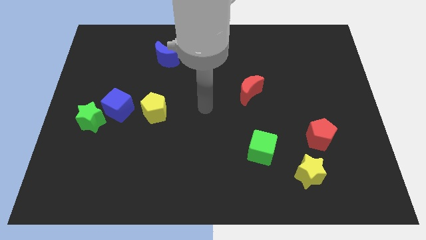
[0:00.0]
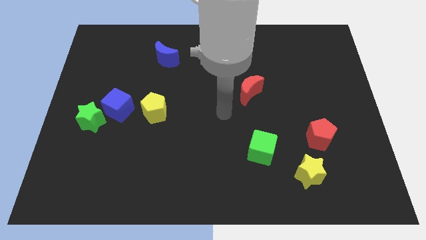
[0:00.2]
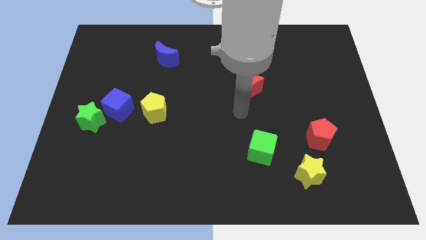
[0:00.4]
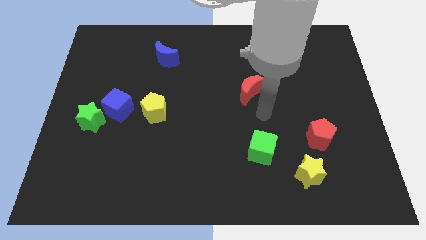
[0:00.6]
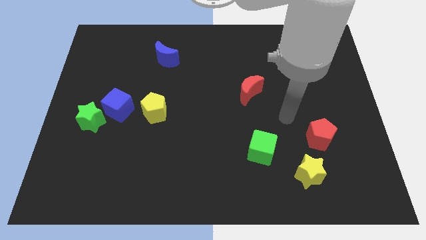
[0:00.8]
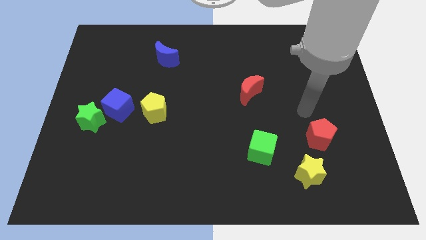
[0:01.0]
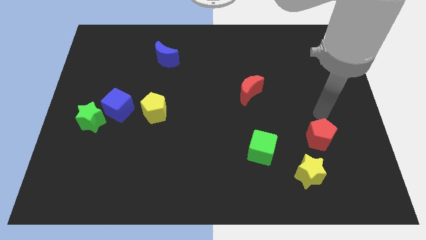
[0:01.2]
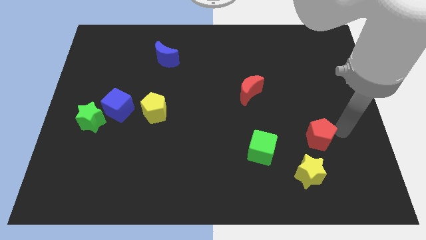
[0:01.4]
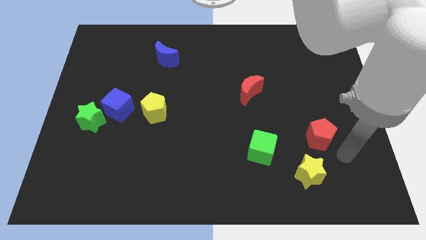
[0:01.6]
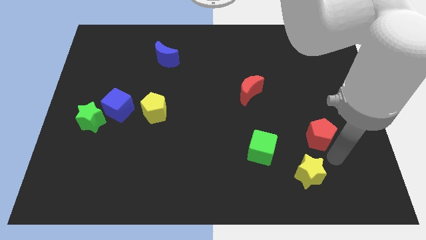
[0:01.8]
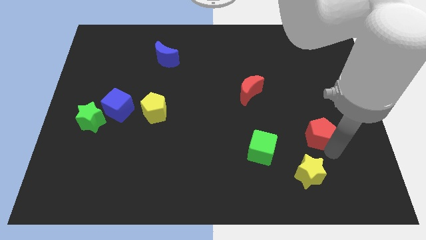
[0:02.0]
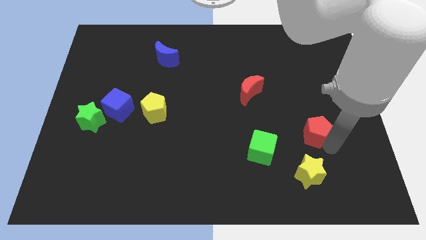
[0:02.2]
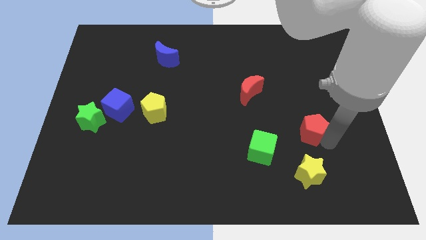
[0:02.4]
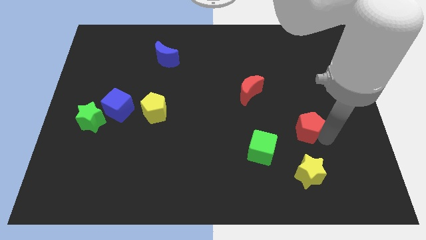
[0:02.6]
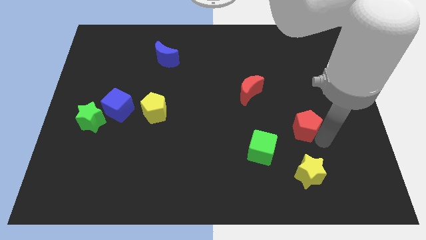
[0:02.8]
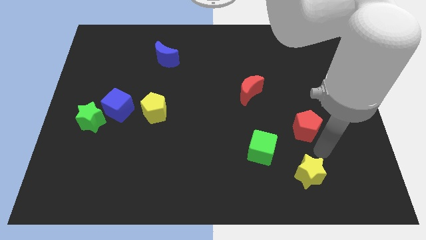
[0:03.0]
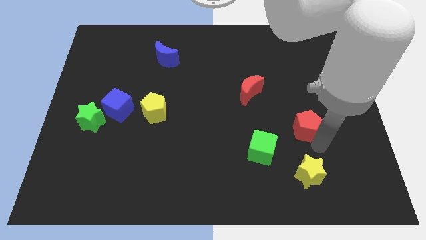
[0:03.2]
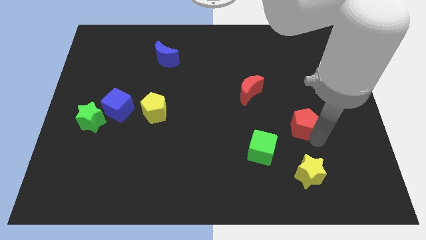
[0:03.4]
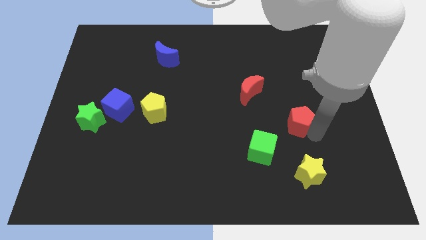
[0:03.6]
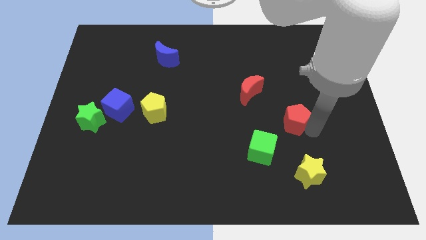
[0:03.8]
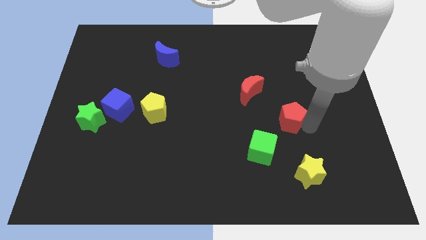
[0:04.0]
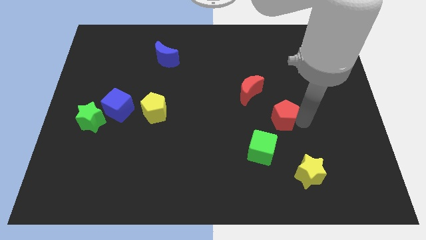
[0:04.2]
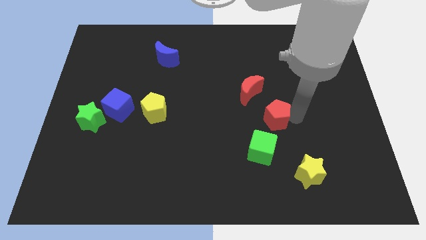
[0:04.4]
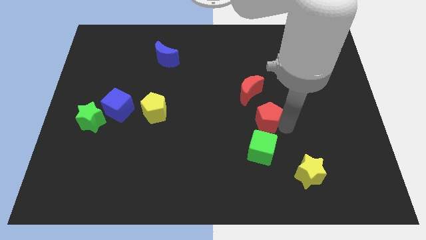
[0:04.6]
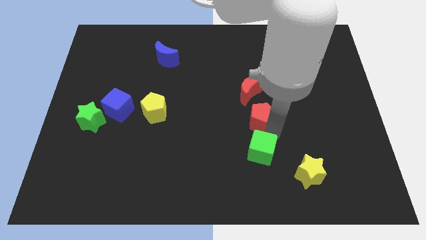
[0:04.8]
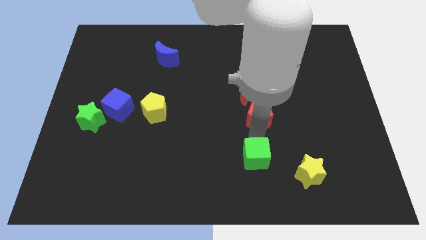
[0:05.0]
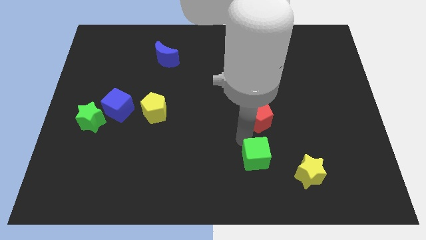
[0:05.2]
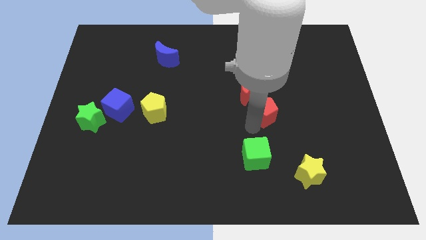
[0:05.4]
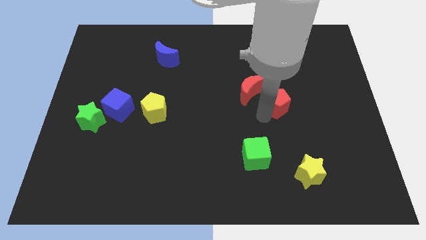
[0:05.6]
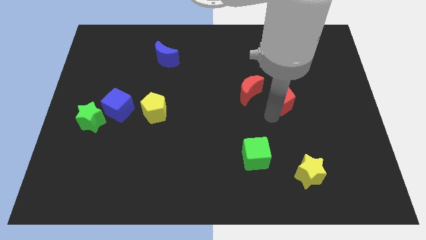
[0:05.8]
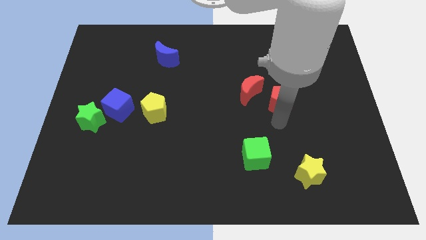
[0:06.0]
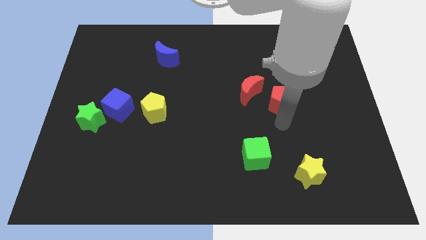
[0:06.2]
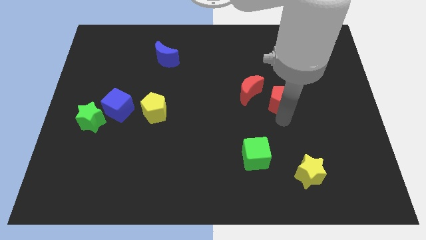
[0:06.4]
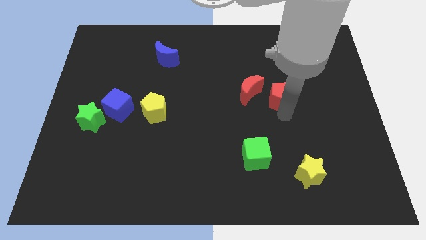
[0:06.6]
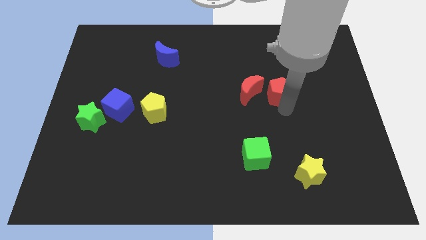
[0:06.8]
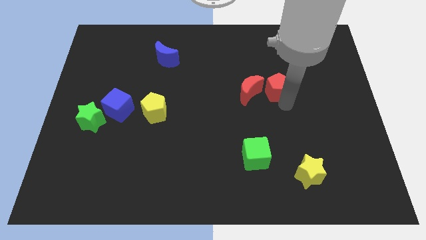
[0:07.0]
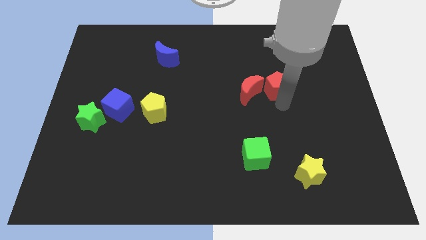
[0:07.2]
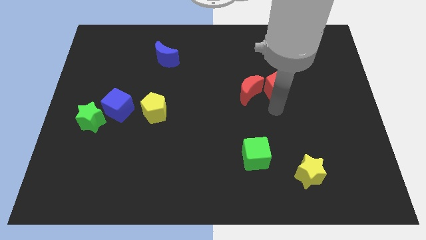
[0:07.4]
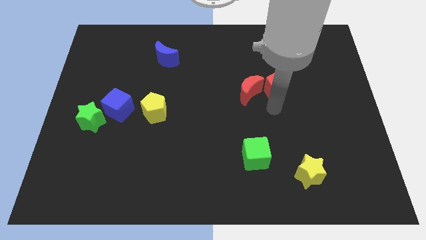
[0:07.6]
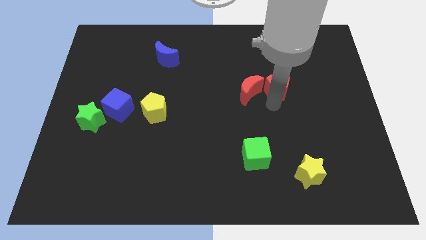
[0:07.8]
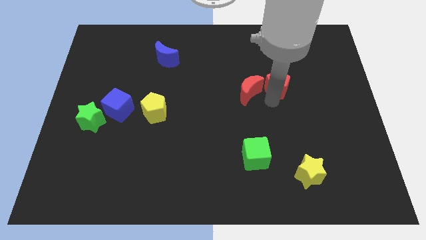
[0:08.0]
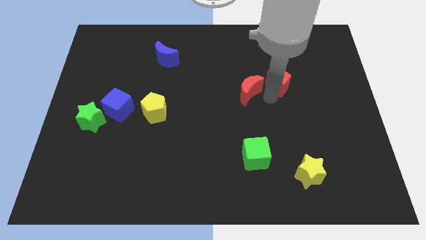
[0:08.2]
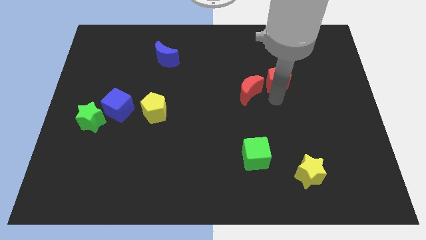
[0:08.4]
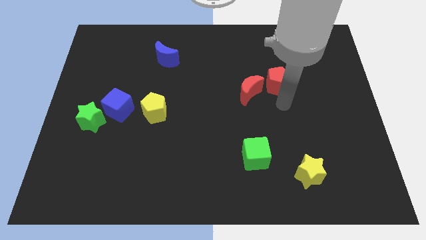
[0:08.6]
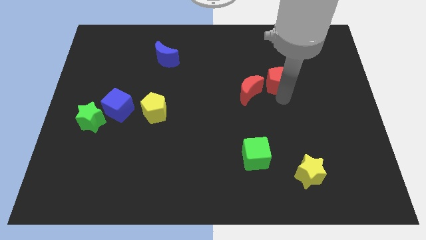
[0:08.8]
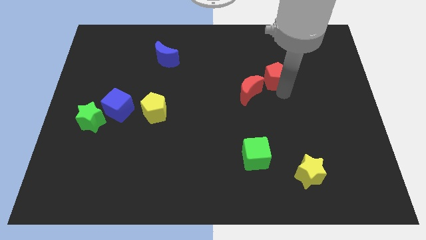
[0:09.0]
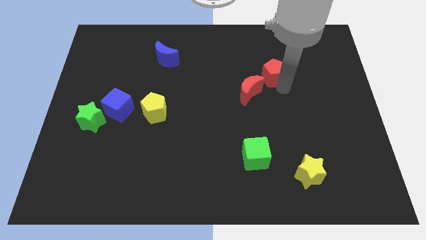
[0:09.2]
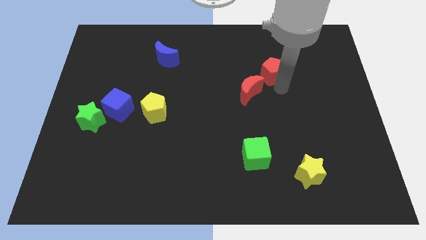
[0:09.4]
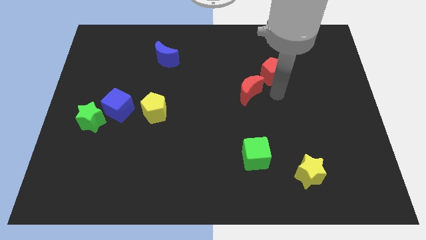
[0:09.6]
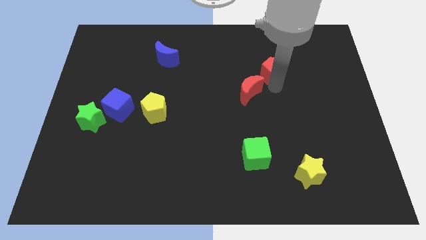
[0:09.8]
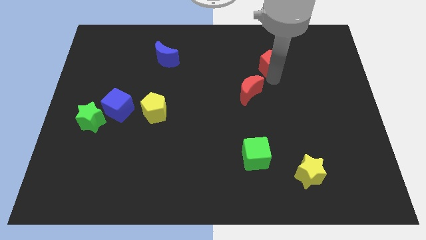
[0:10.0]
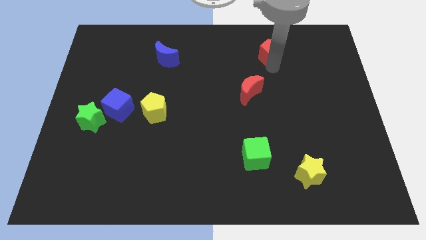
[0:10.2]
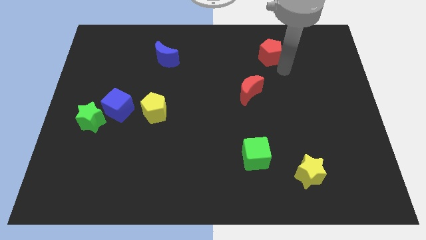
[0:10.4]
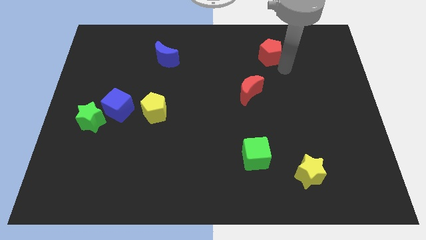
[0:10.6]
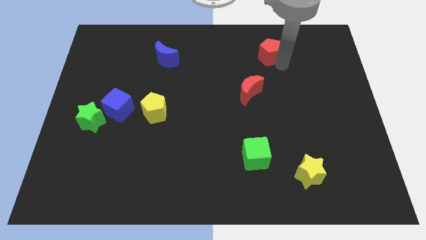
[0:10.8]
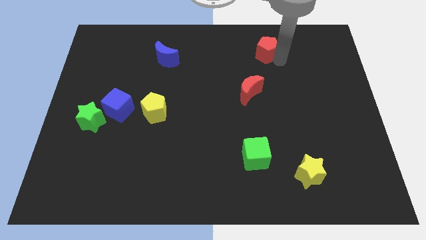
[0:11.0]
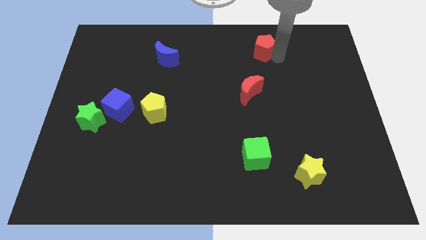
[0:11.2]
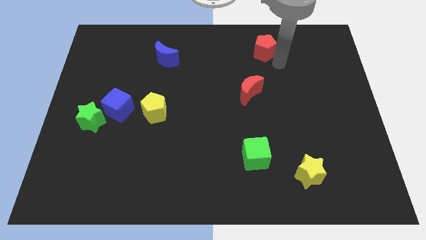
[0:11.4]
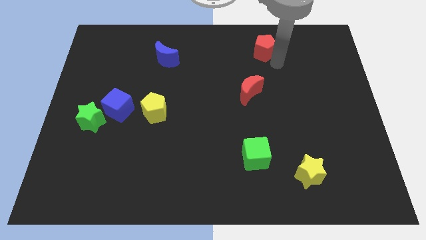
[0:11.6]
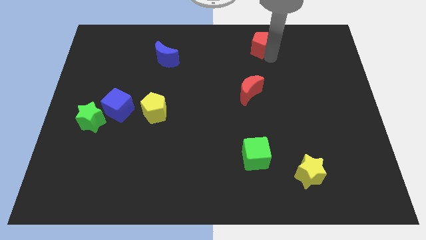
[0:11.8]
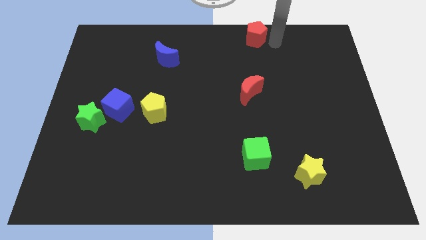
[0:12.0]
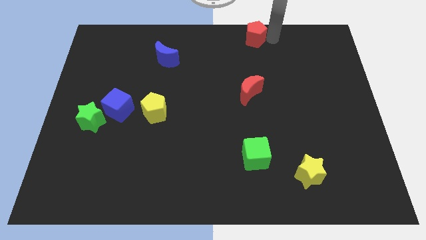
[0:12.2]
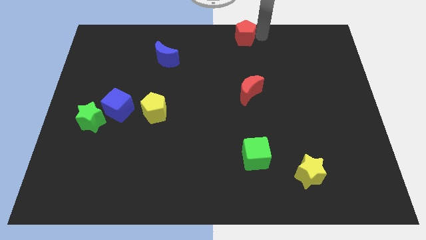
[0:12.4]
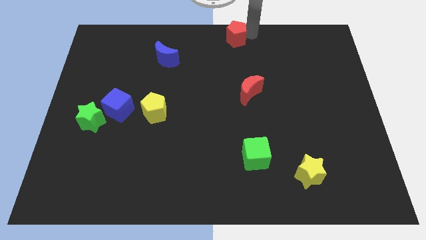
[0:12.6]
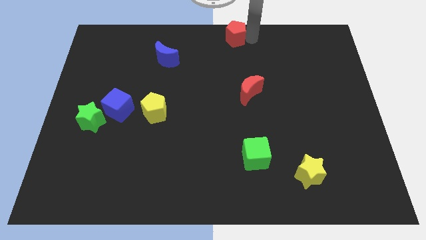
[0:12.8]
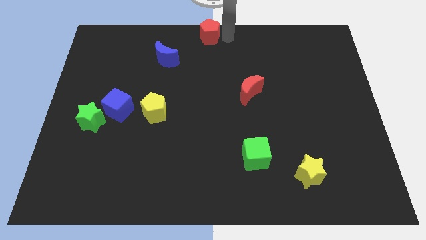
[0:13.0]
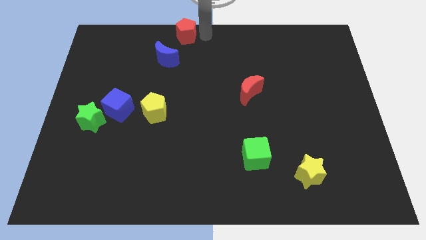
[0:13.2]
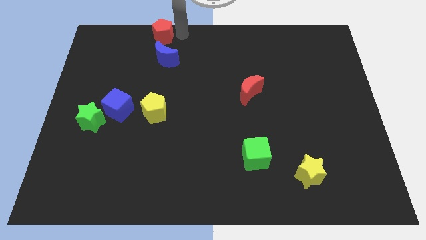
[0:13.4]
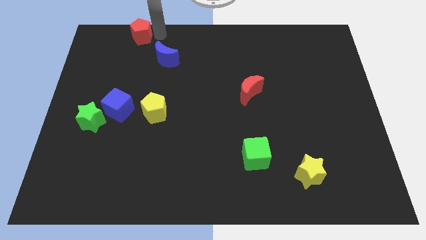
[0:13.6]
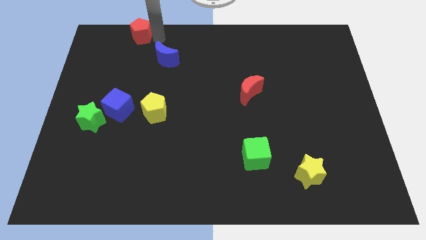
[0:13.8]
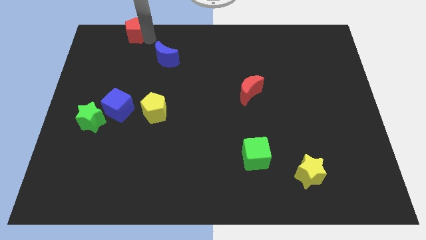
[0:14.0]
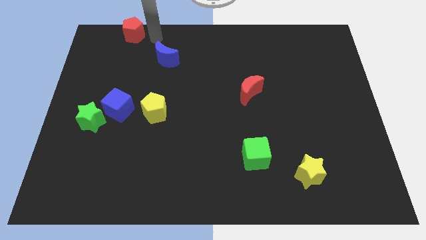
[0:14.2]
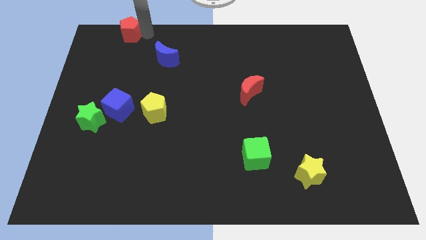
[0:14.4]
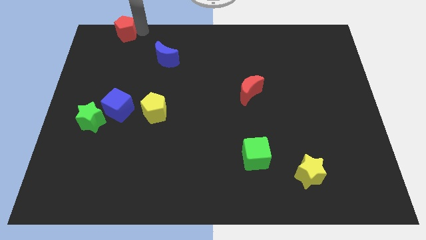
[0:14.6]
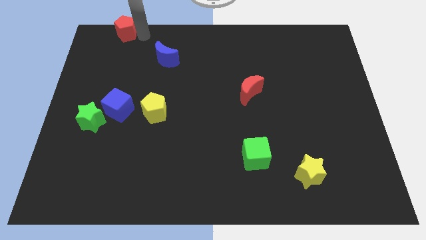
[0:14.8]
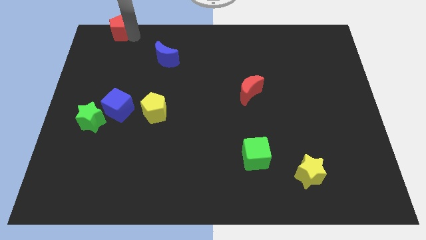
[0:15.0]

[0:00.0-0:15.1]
put the red pentagon to the top left corner

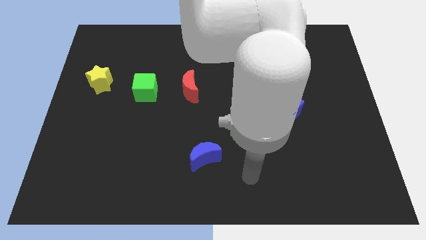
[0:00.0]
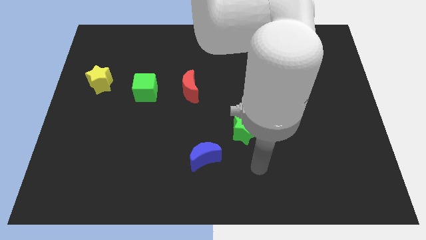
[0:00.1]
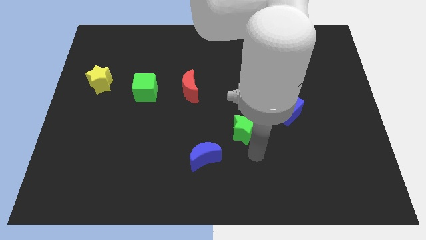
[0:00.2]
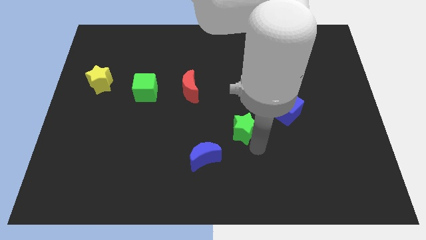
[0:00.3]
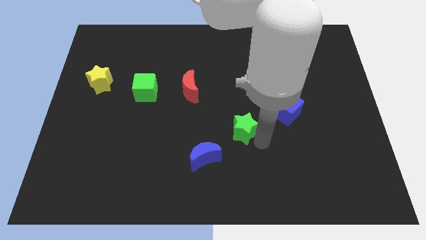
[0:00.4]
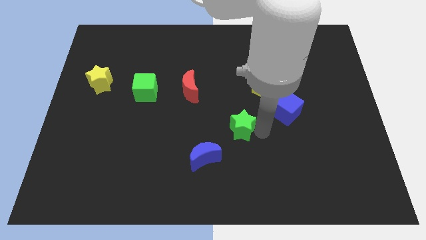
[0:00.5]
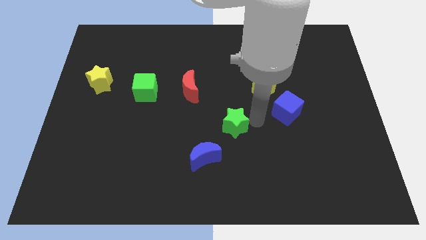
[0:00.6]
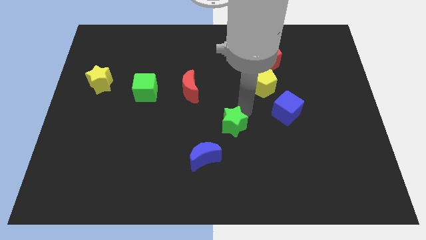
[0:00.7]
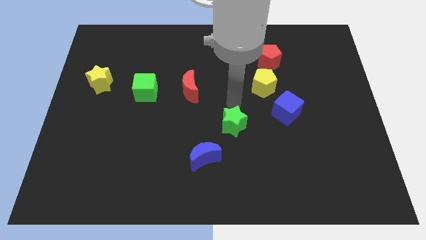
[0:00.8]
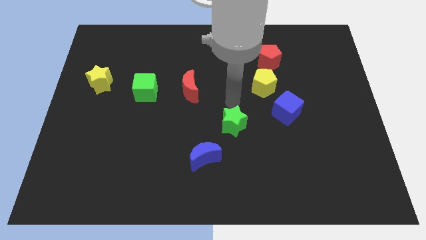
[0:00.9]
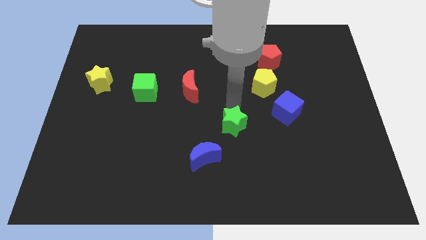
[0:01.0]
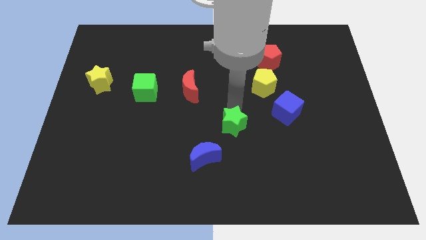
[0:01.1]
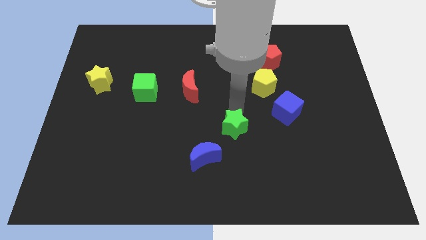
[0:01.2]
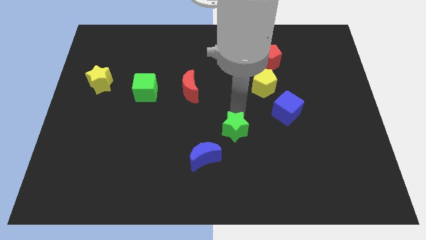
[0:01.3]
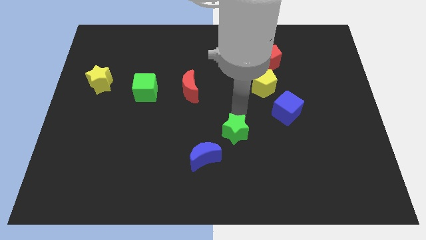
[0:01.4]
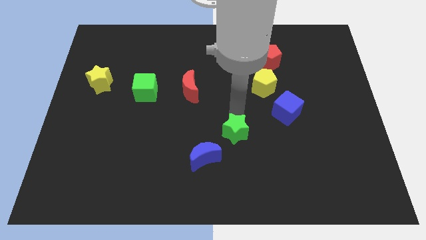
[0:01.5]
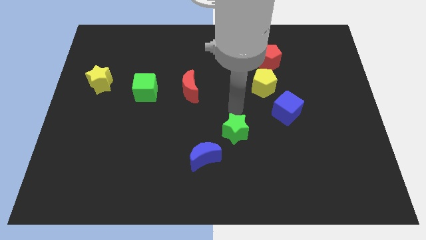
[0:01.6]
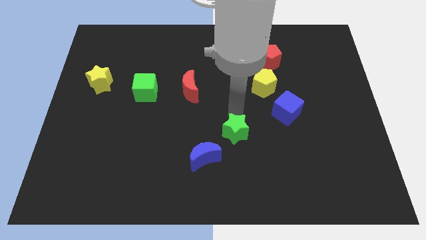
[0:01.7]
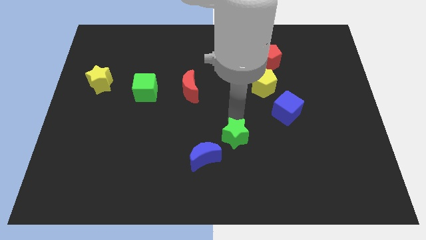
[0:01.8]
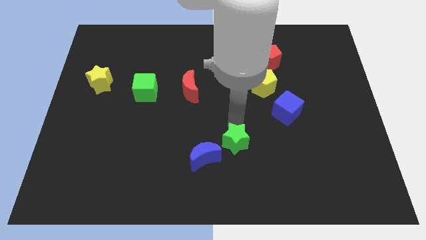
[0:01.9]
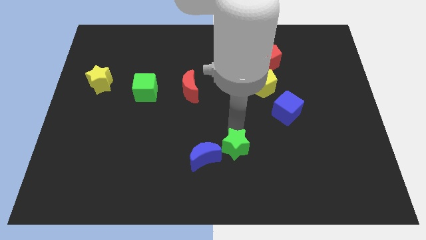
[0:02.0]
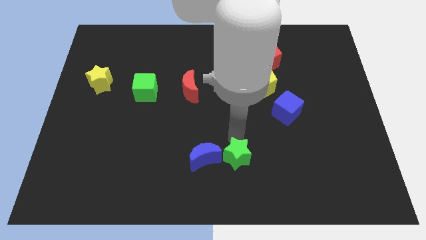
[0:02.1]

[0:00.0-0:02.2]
put the green star to the bottom side
